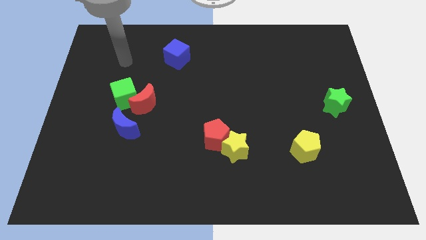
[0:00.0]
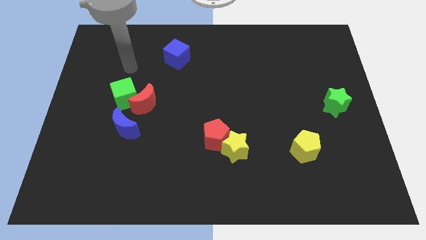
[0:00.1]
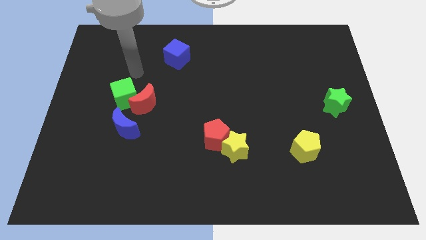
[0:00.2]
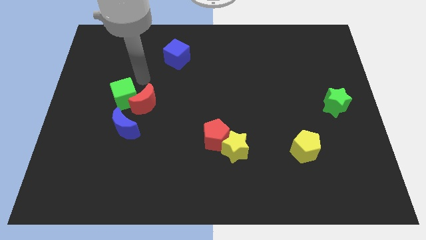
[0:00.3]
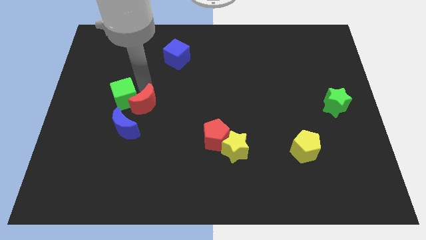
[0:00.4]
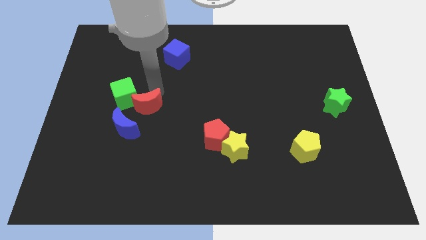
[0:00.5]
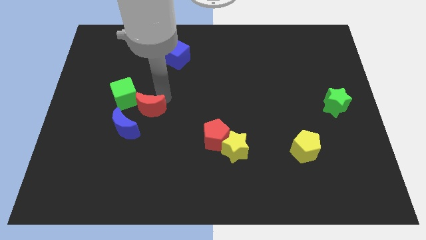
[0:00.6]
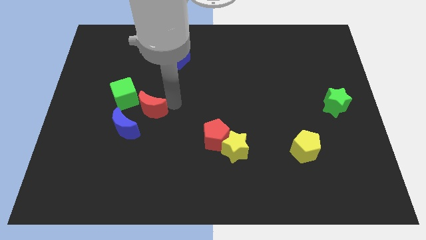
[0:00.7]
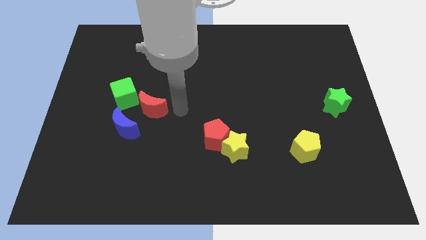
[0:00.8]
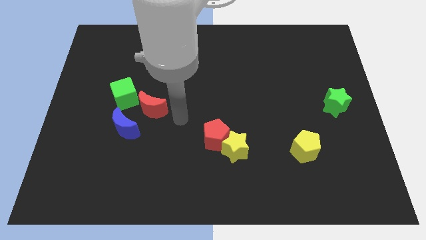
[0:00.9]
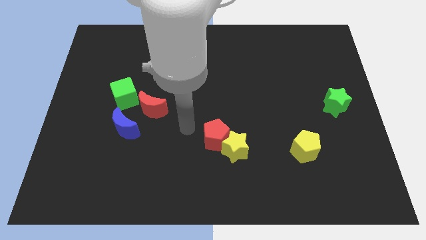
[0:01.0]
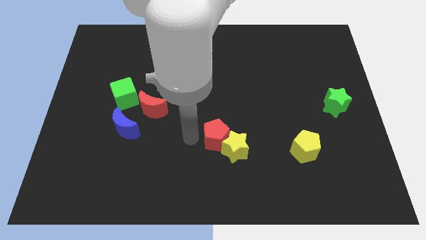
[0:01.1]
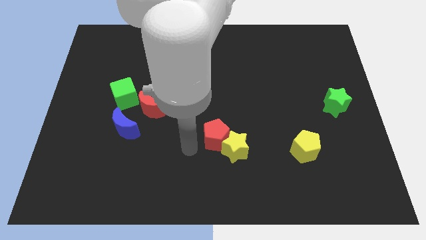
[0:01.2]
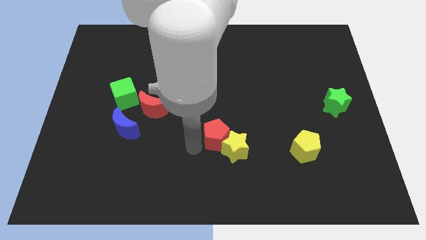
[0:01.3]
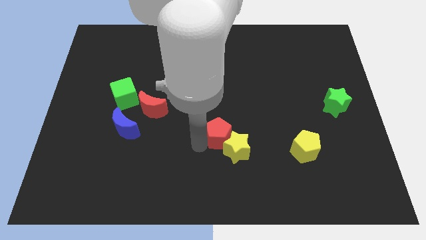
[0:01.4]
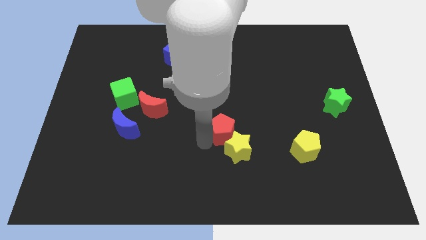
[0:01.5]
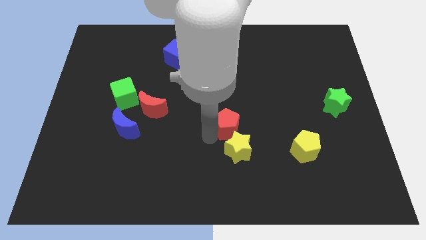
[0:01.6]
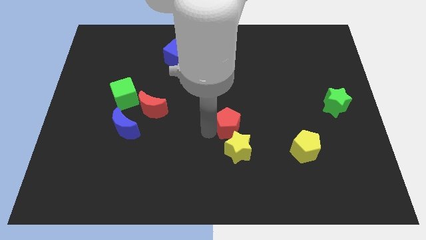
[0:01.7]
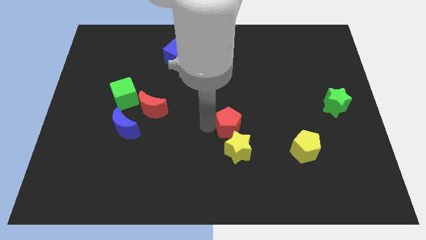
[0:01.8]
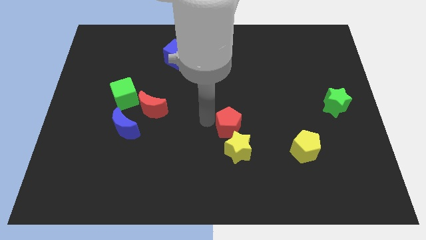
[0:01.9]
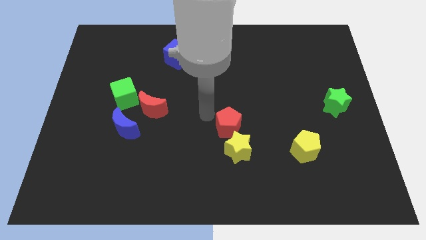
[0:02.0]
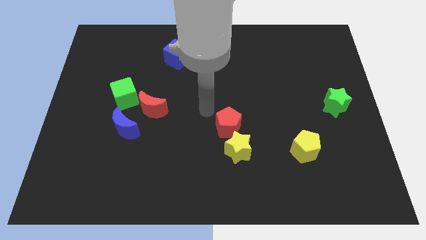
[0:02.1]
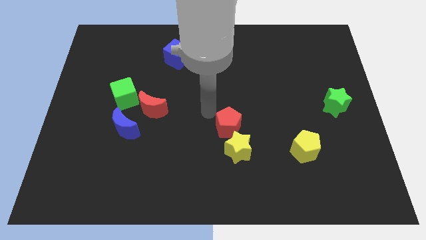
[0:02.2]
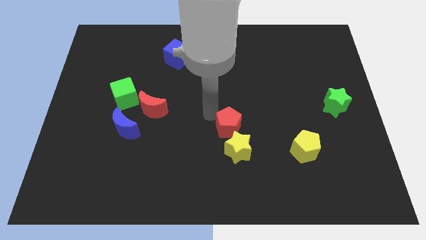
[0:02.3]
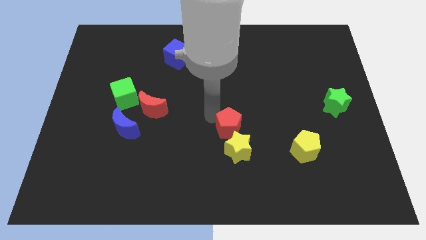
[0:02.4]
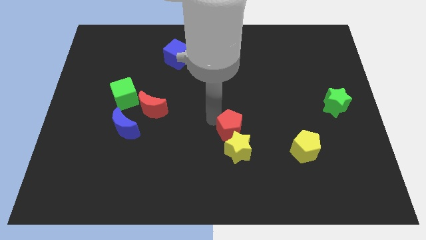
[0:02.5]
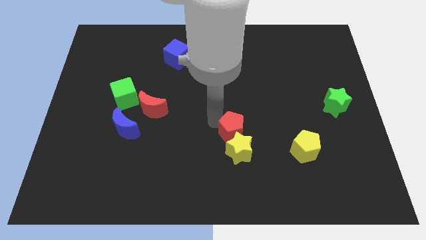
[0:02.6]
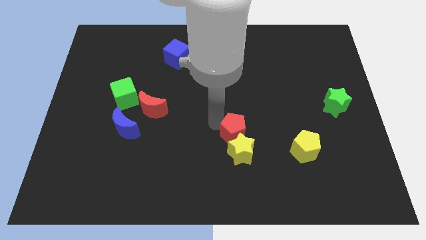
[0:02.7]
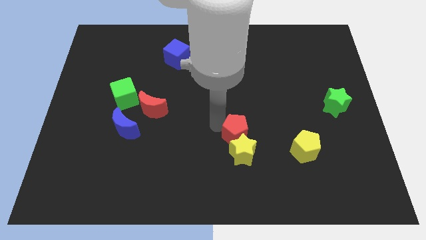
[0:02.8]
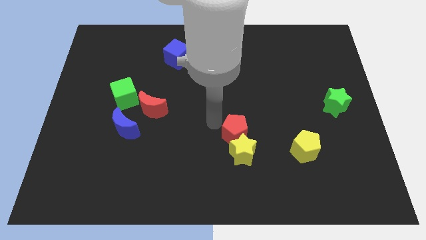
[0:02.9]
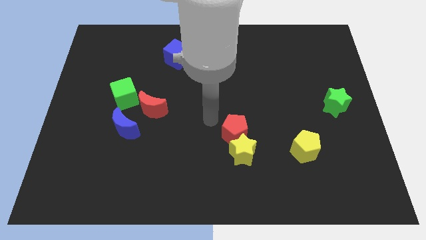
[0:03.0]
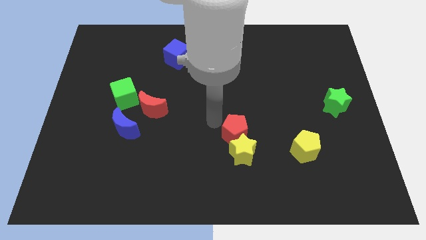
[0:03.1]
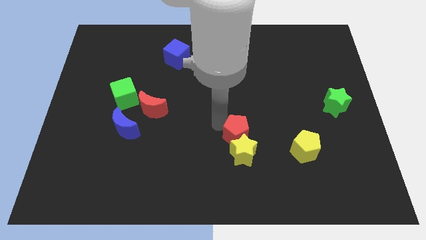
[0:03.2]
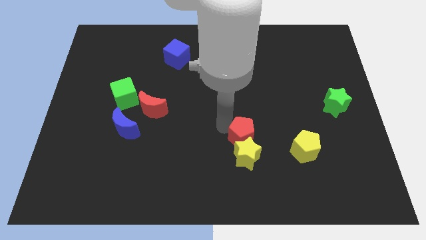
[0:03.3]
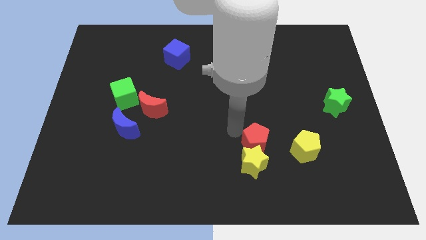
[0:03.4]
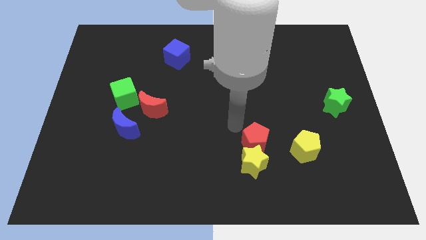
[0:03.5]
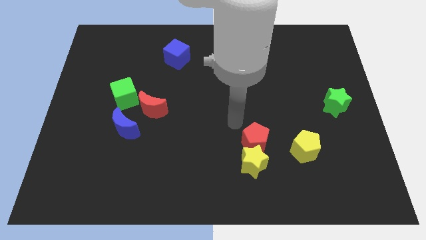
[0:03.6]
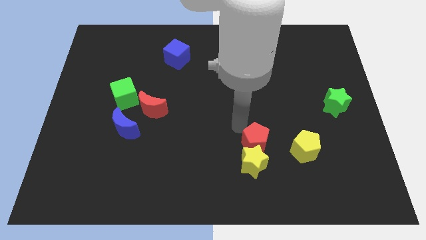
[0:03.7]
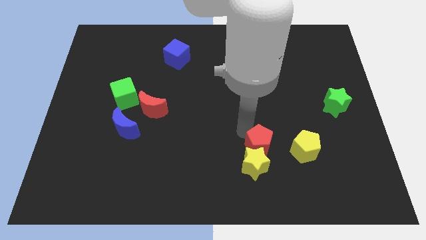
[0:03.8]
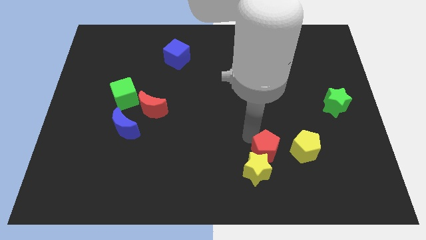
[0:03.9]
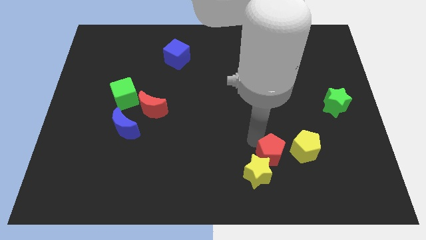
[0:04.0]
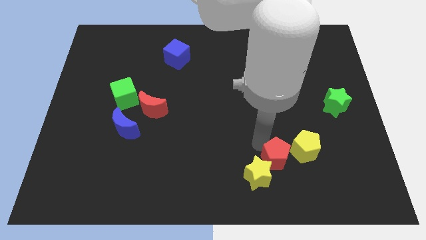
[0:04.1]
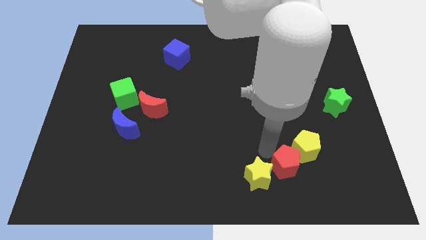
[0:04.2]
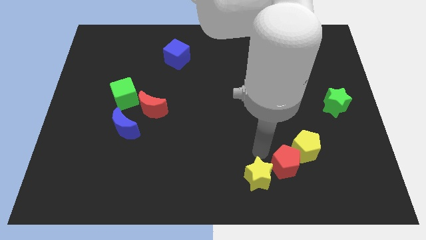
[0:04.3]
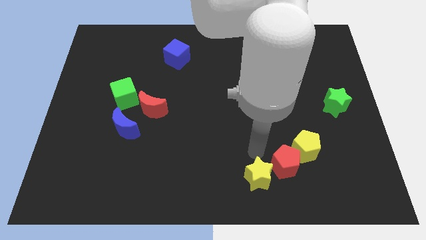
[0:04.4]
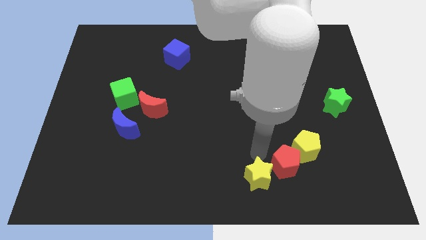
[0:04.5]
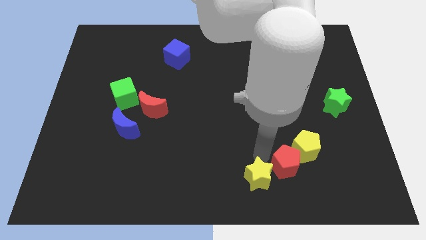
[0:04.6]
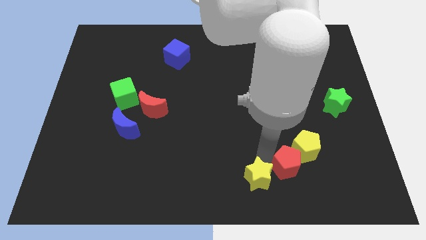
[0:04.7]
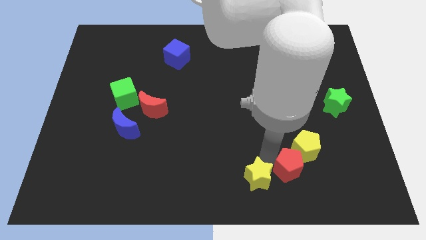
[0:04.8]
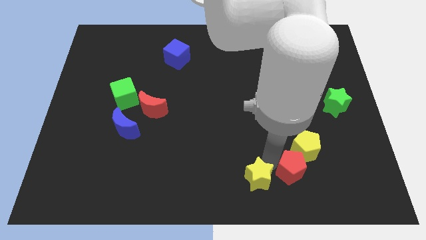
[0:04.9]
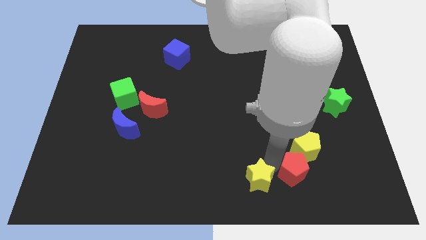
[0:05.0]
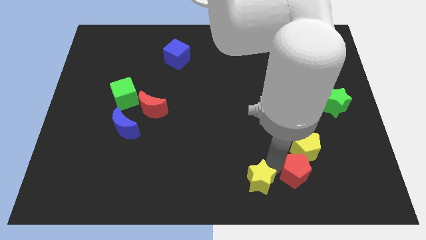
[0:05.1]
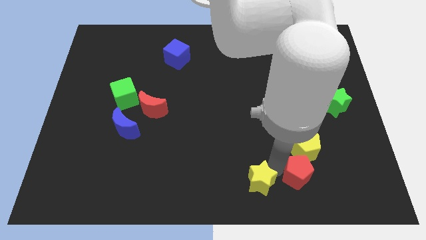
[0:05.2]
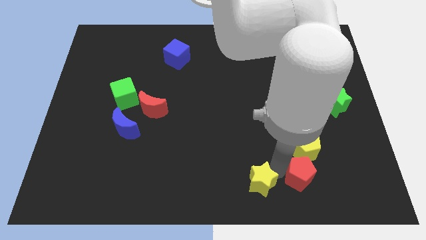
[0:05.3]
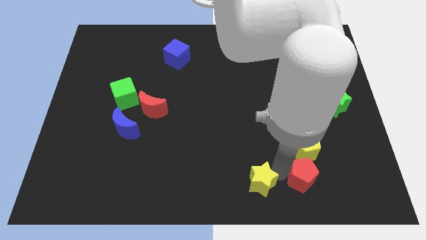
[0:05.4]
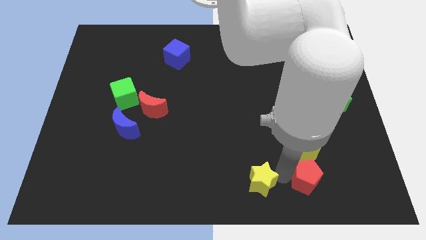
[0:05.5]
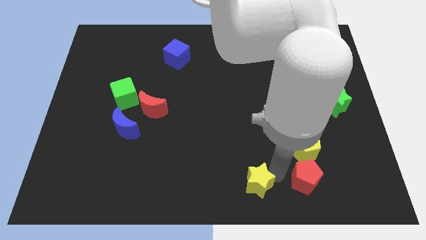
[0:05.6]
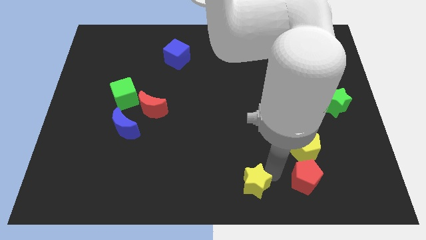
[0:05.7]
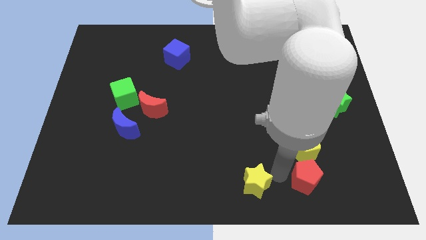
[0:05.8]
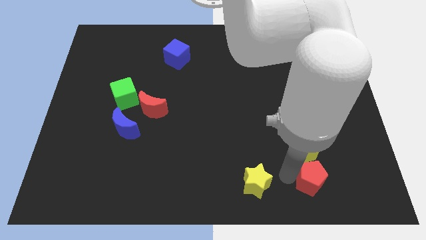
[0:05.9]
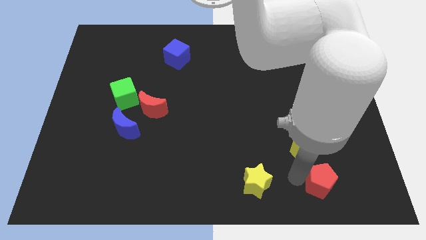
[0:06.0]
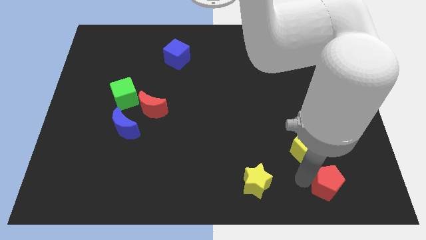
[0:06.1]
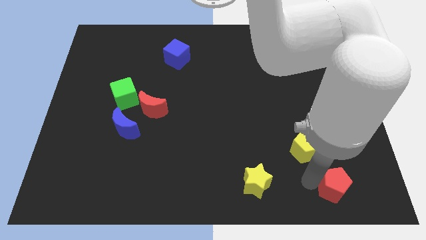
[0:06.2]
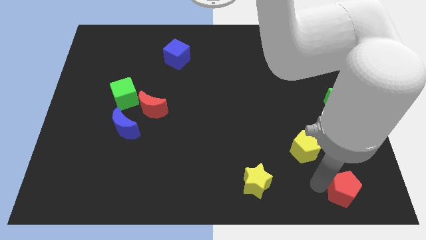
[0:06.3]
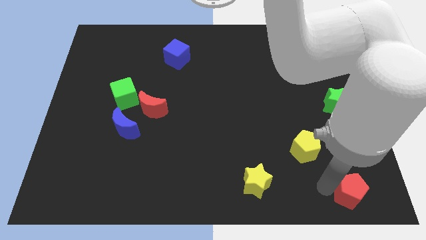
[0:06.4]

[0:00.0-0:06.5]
slide the red pentagon to the bottom right of the board

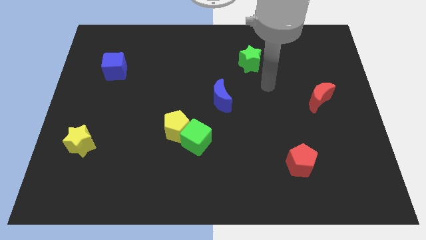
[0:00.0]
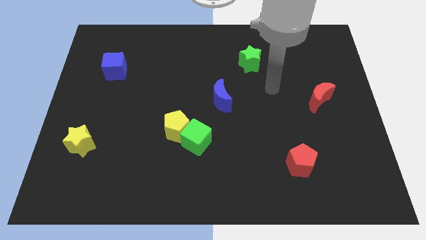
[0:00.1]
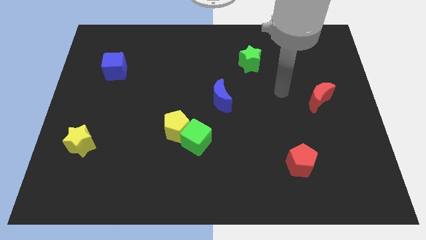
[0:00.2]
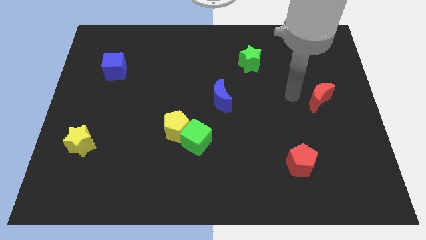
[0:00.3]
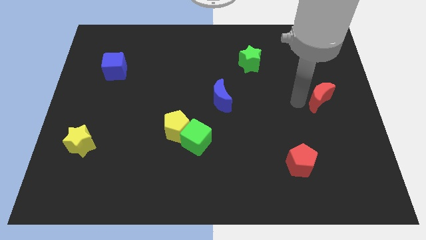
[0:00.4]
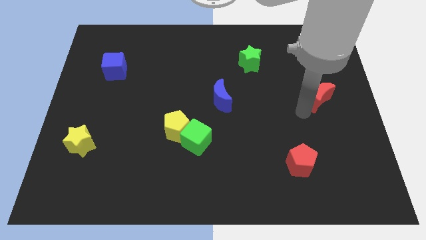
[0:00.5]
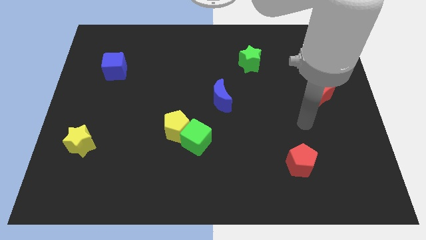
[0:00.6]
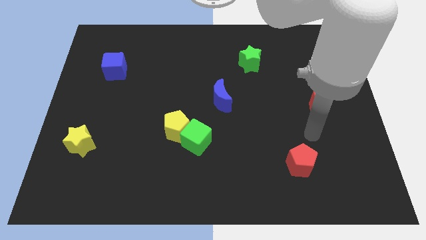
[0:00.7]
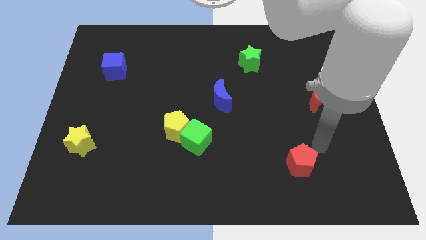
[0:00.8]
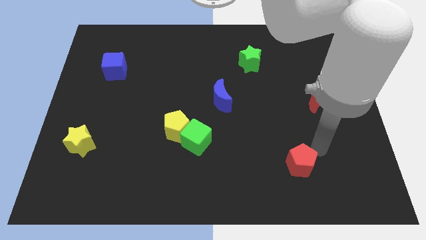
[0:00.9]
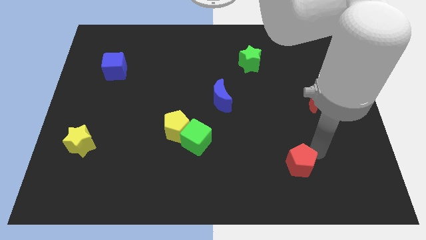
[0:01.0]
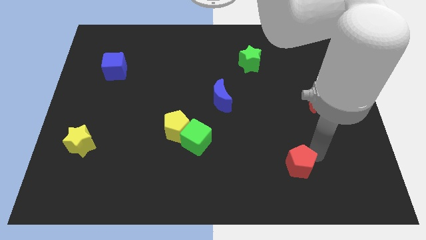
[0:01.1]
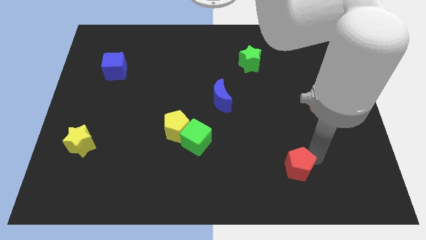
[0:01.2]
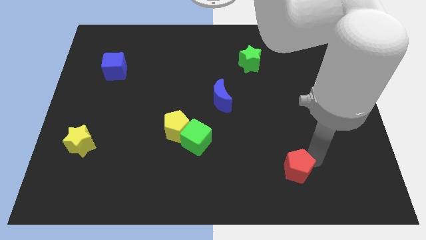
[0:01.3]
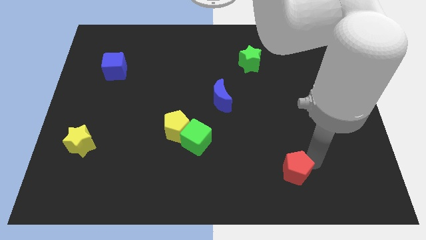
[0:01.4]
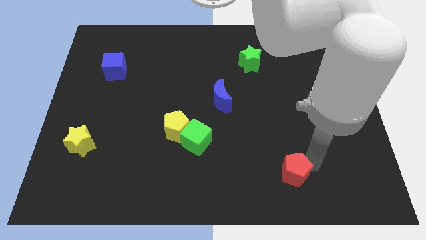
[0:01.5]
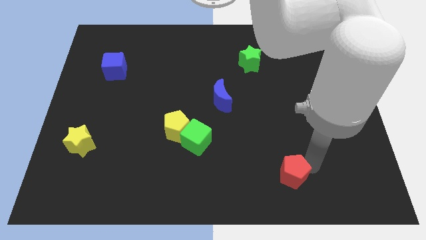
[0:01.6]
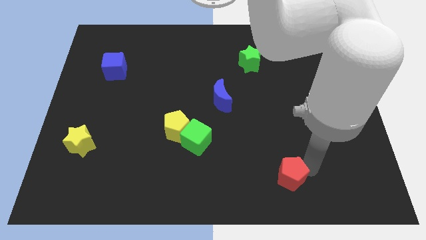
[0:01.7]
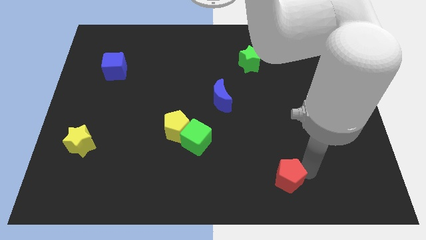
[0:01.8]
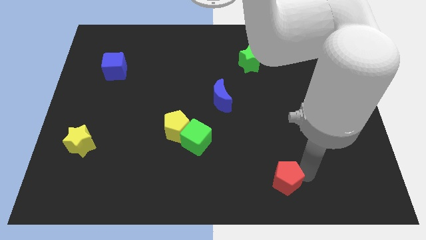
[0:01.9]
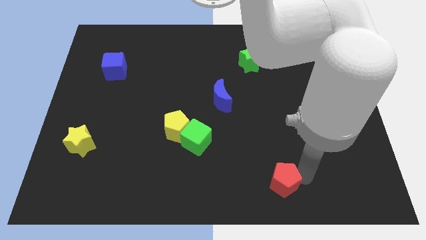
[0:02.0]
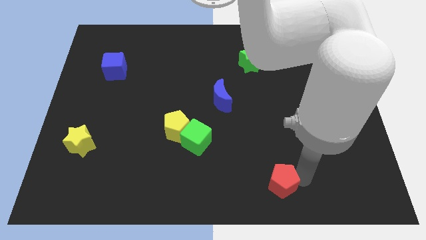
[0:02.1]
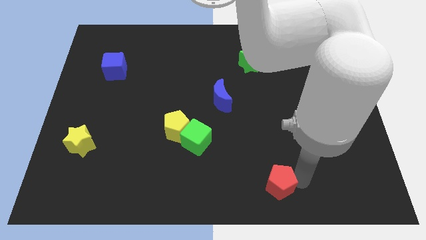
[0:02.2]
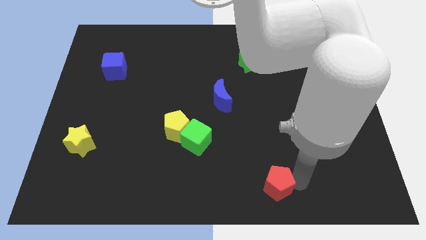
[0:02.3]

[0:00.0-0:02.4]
move the red pentagon to the bottom side
